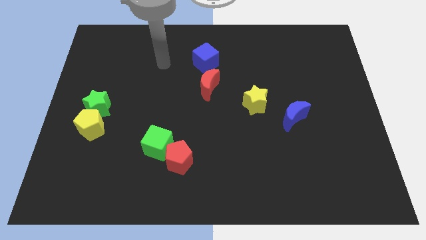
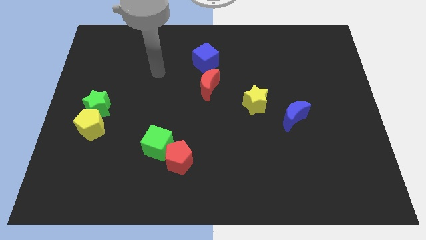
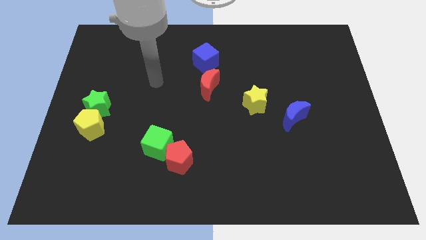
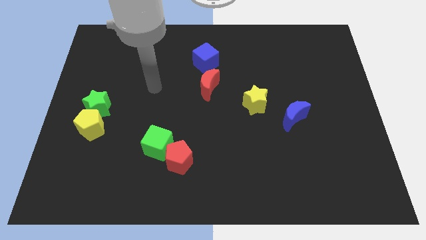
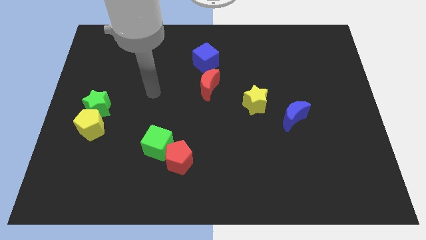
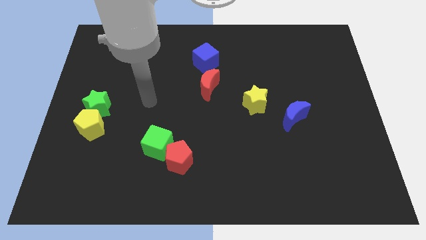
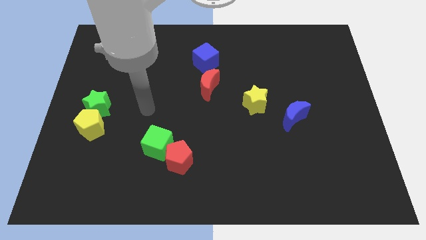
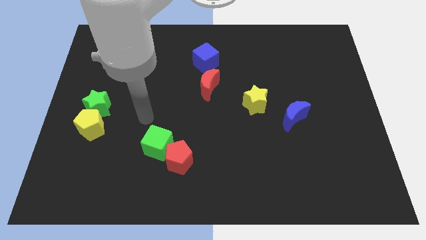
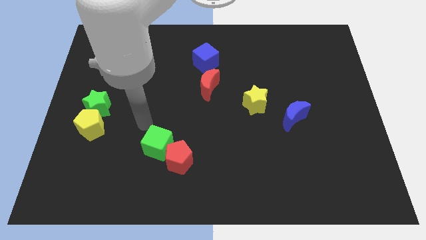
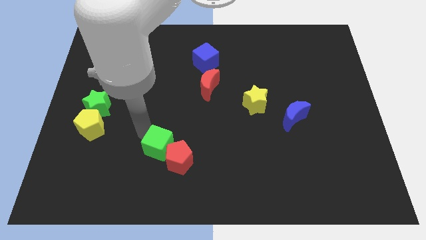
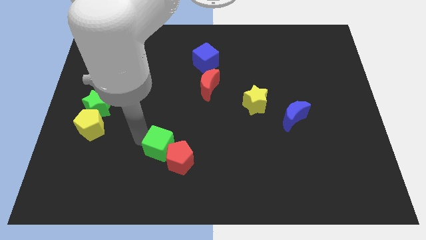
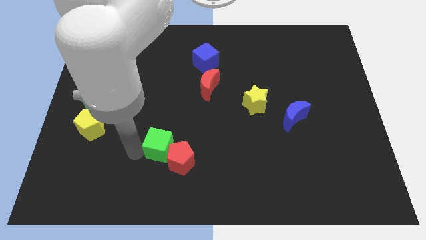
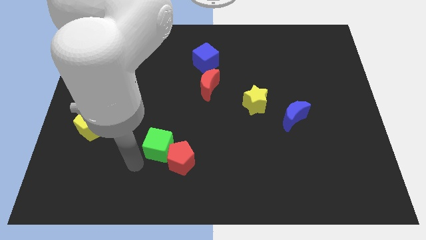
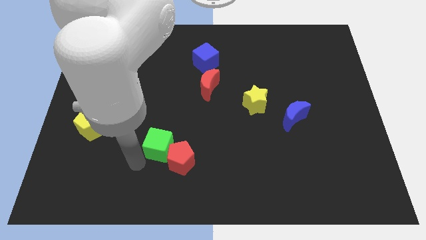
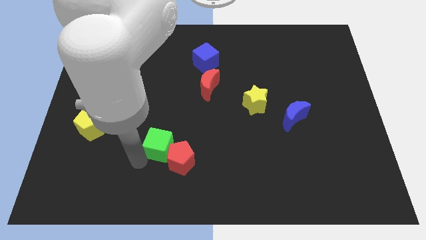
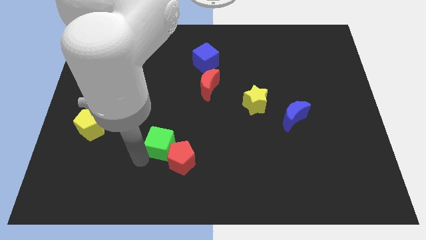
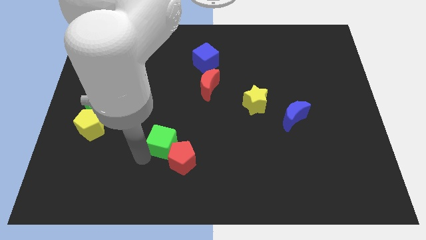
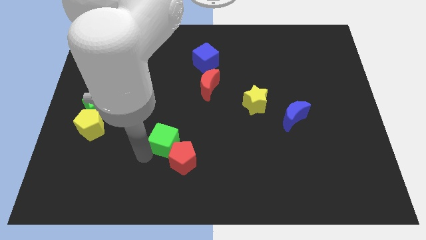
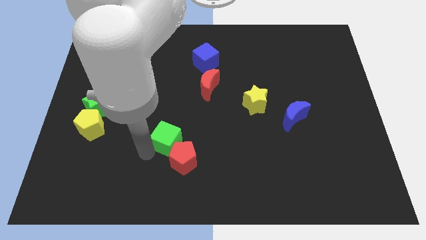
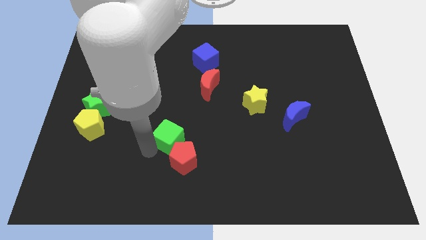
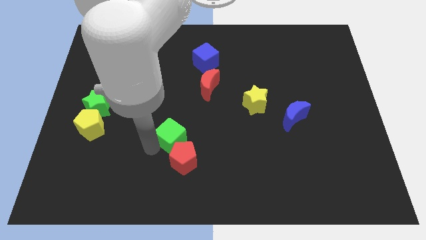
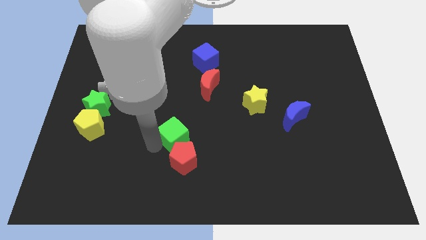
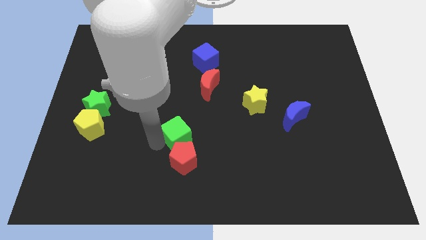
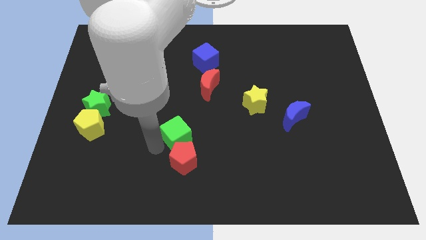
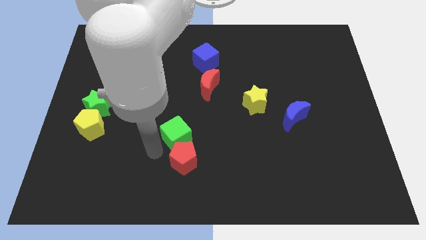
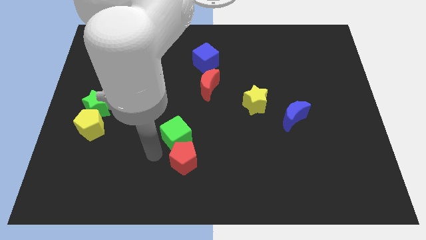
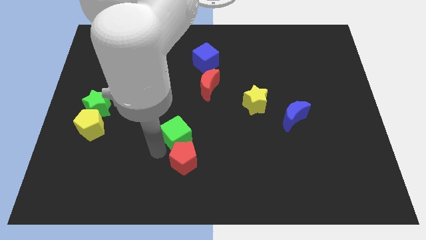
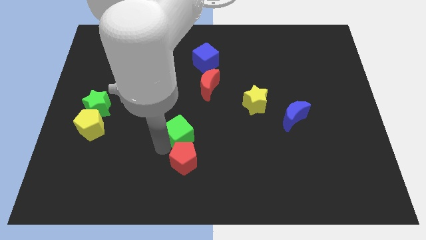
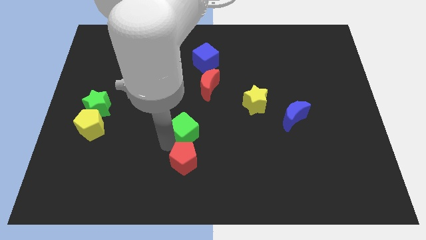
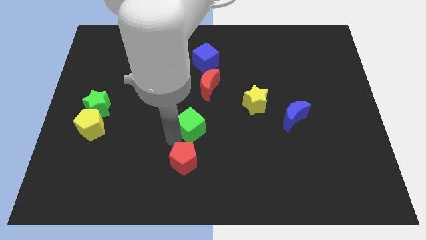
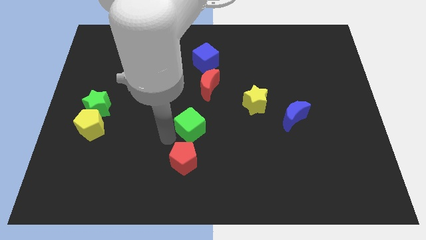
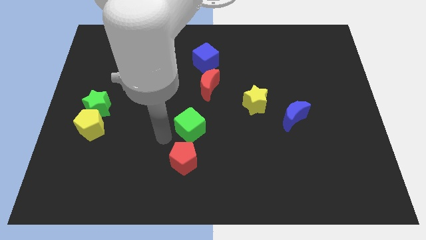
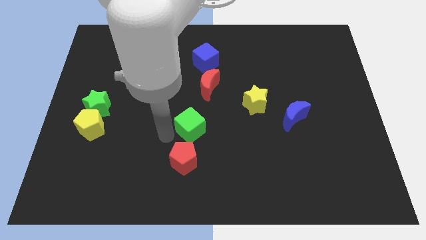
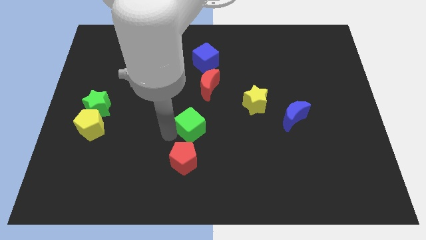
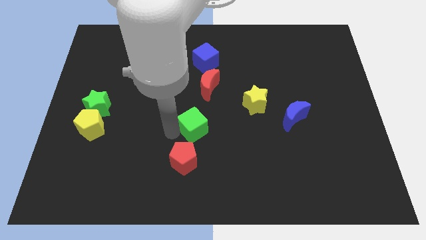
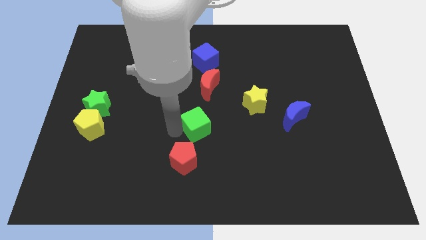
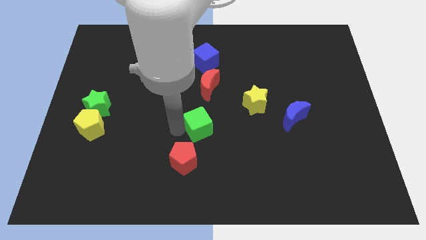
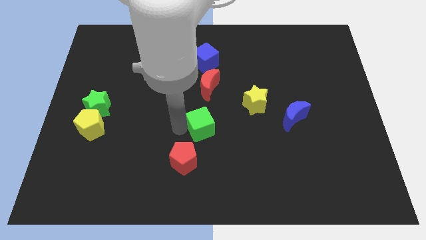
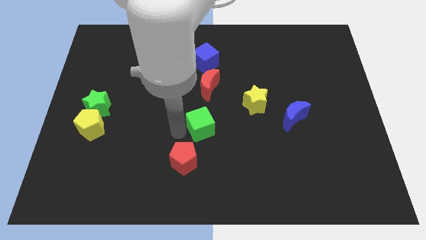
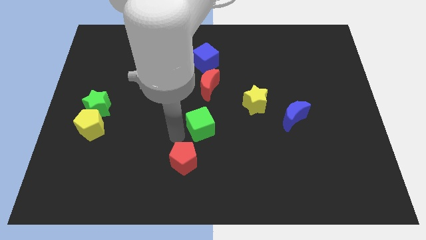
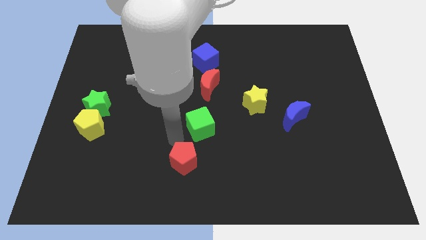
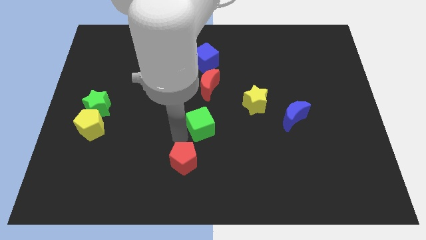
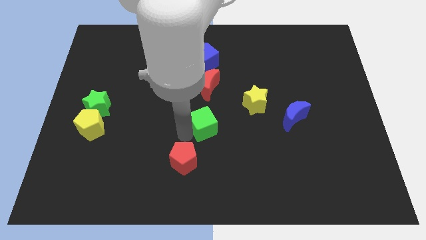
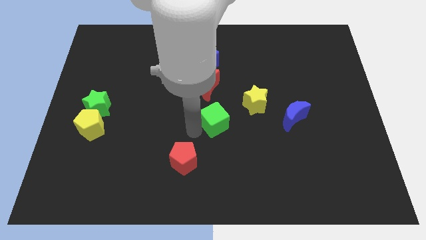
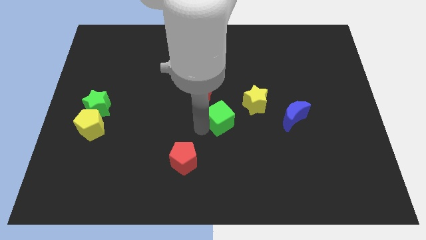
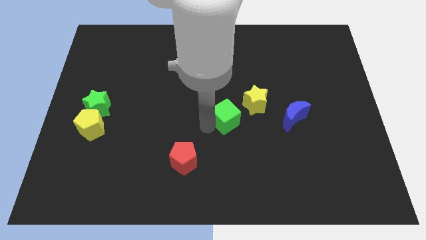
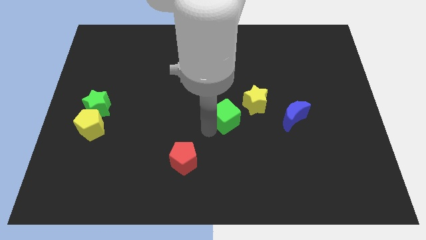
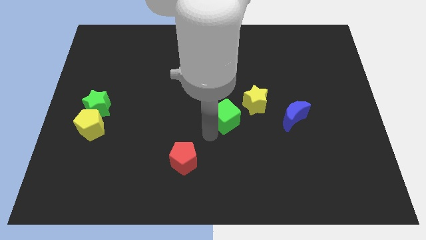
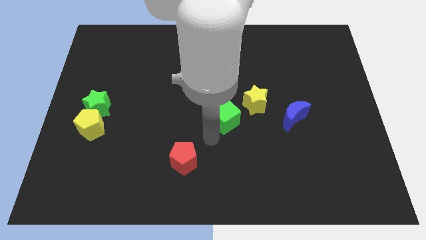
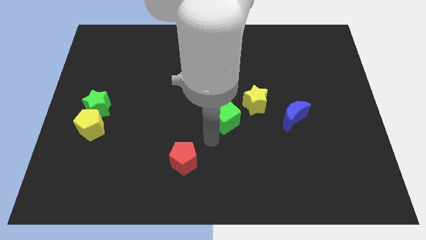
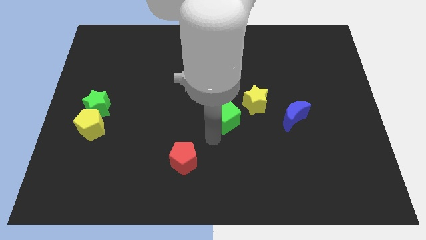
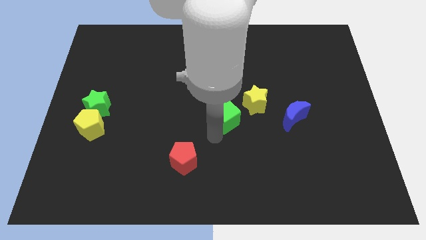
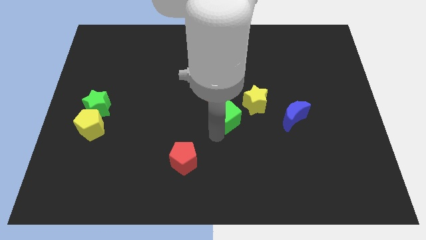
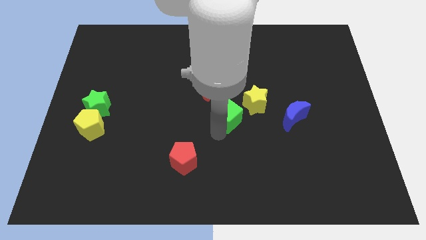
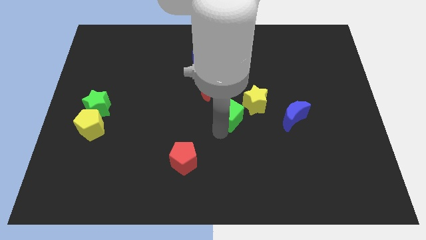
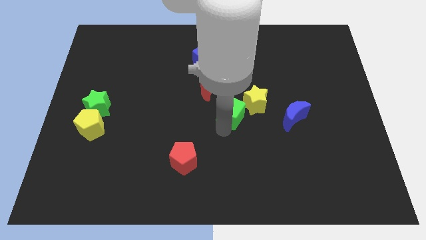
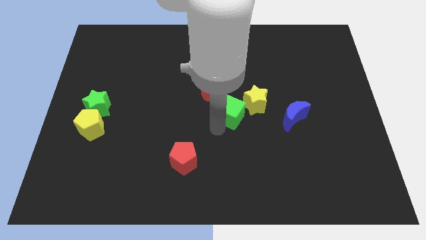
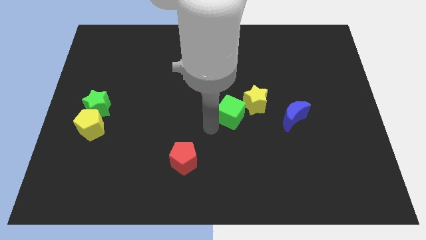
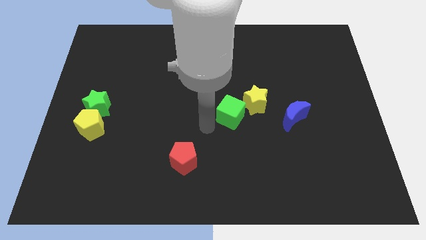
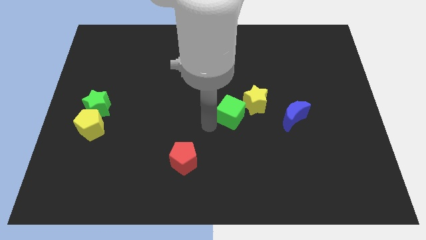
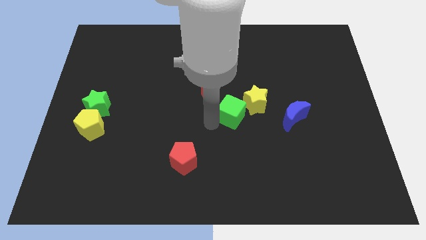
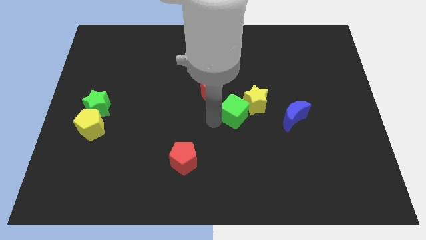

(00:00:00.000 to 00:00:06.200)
push the green cube next to the yellow star
